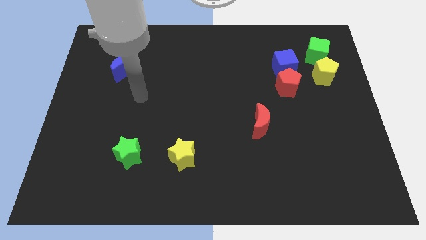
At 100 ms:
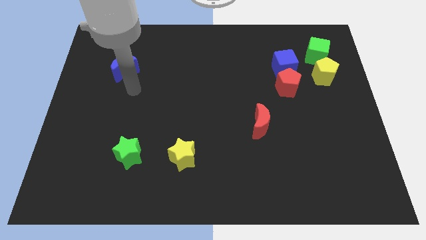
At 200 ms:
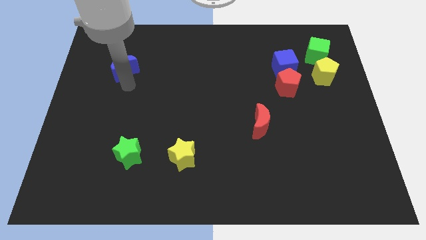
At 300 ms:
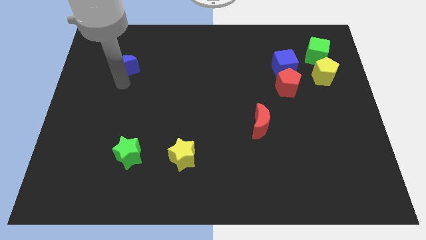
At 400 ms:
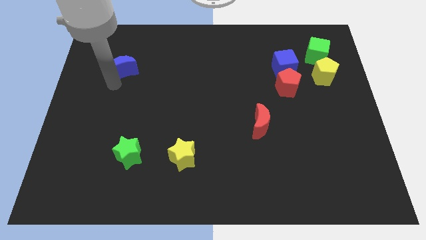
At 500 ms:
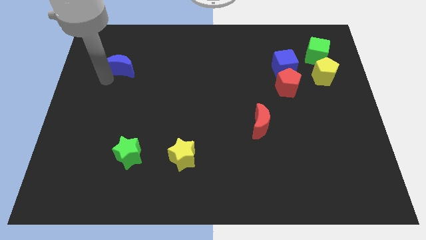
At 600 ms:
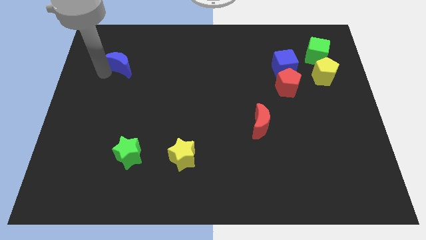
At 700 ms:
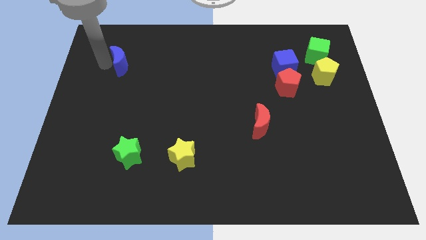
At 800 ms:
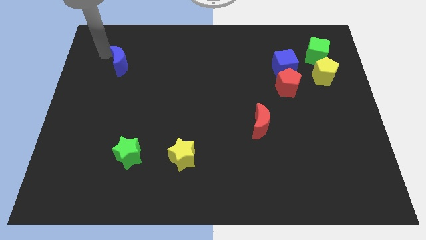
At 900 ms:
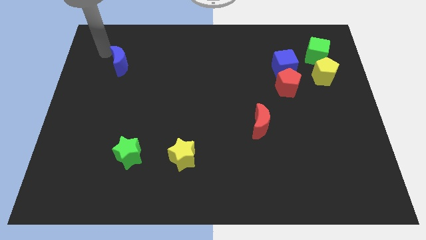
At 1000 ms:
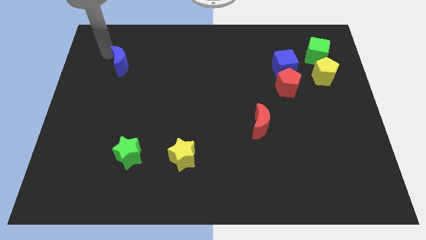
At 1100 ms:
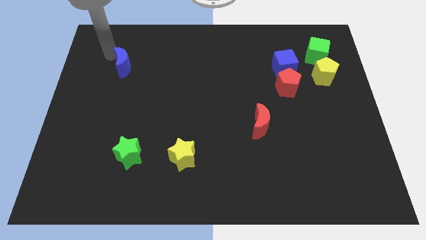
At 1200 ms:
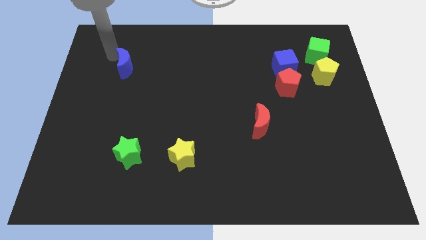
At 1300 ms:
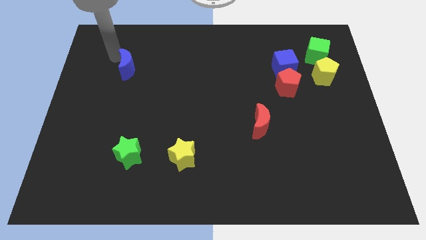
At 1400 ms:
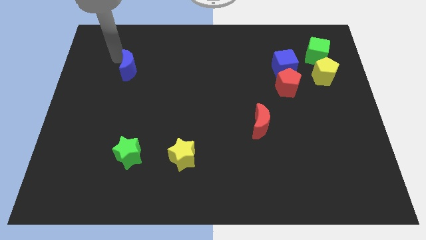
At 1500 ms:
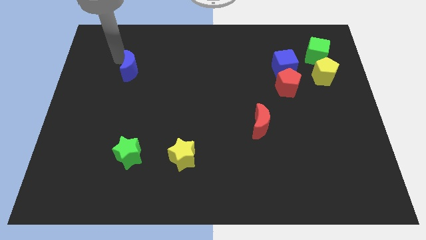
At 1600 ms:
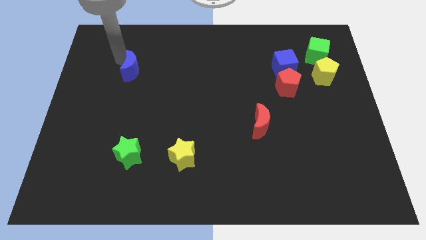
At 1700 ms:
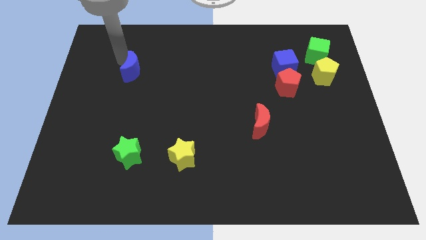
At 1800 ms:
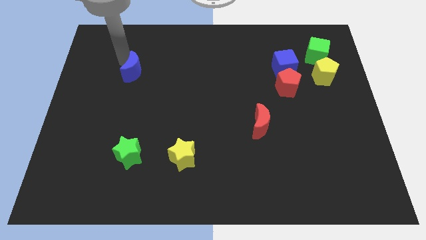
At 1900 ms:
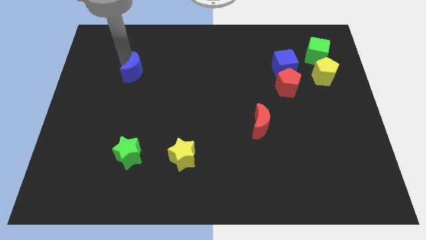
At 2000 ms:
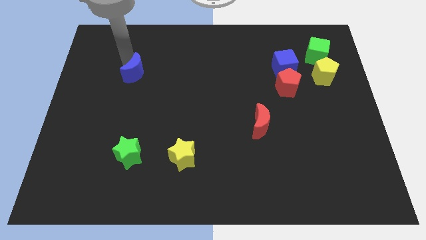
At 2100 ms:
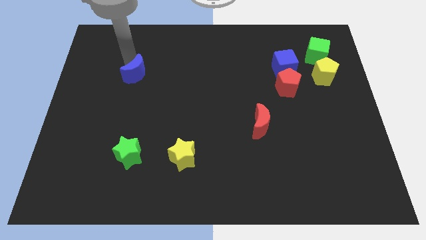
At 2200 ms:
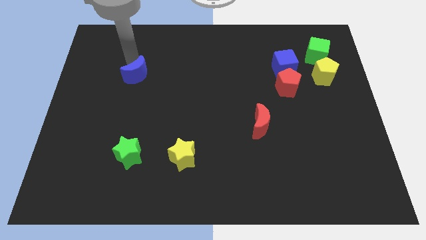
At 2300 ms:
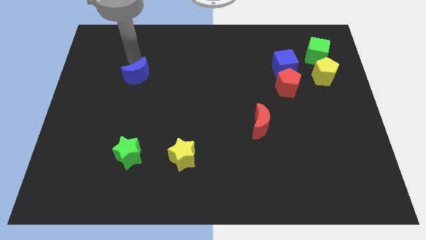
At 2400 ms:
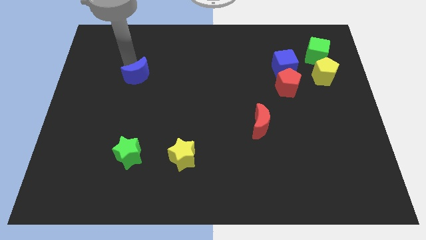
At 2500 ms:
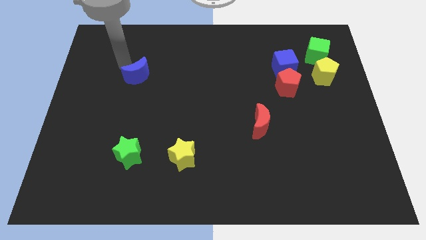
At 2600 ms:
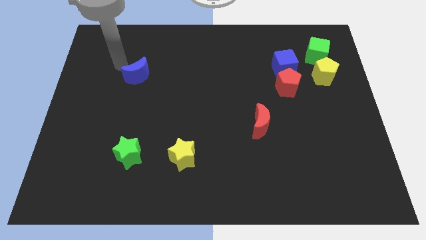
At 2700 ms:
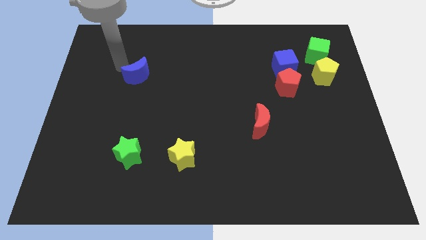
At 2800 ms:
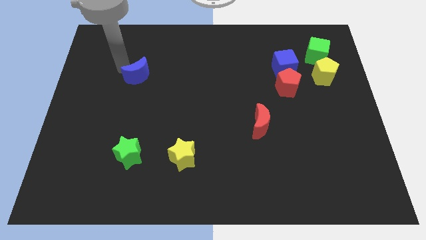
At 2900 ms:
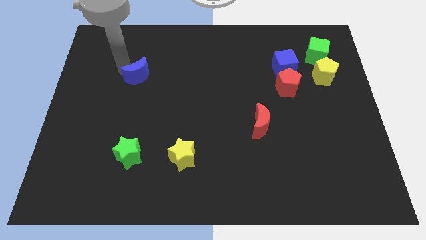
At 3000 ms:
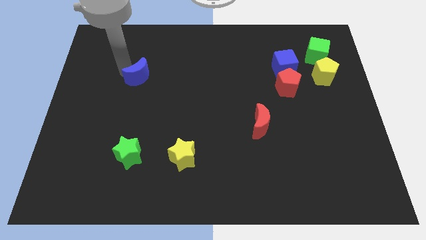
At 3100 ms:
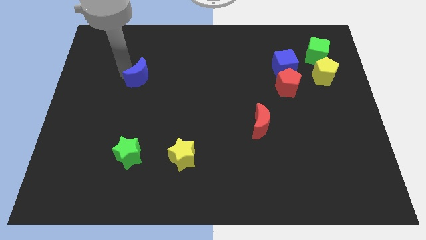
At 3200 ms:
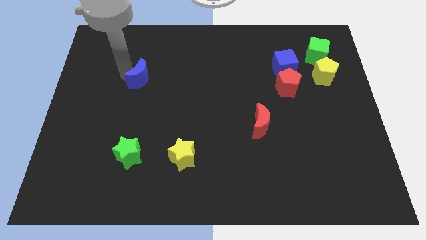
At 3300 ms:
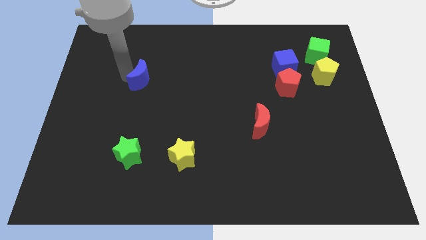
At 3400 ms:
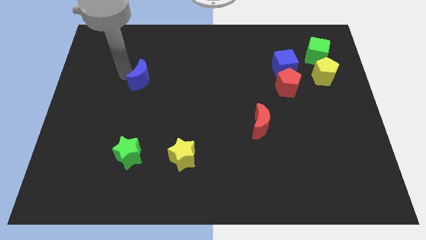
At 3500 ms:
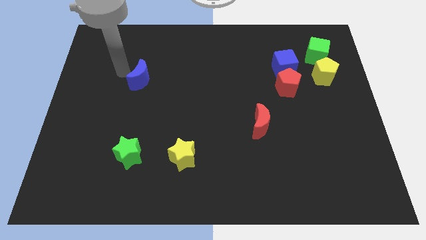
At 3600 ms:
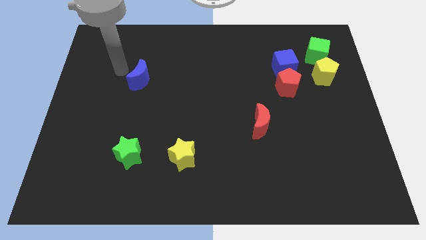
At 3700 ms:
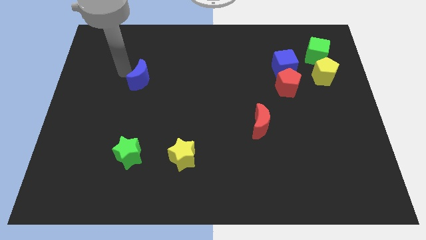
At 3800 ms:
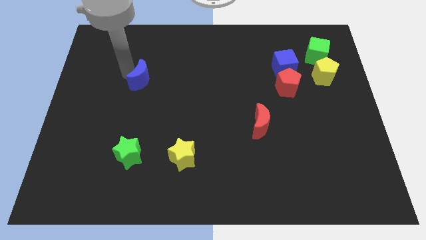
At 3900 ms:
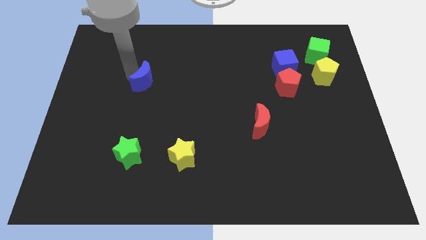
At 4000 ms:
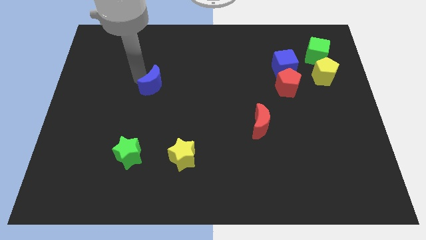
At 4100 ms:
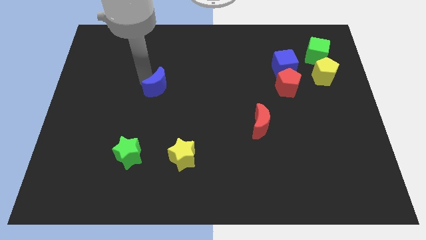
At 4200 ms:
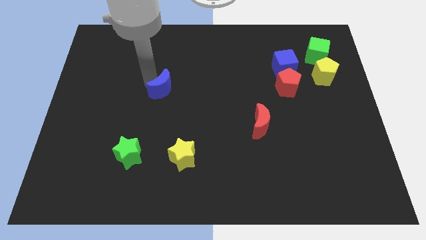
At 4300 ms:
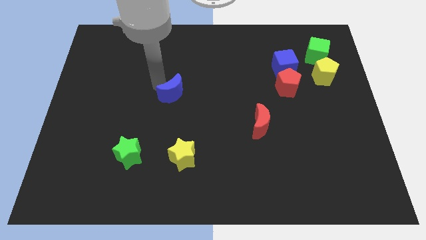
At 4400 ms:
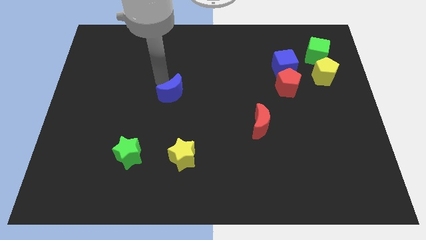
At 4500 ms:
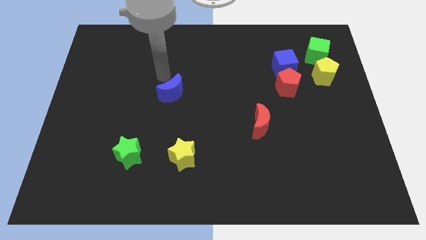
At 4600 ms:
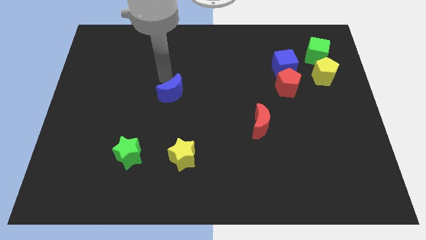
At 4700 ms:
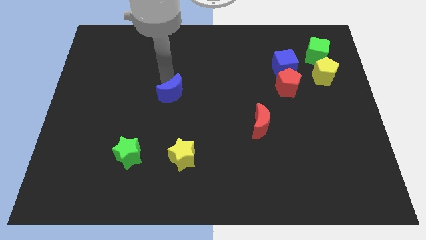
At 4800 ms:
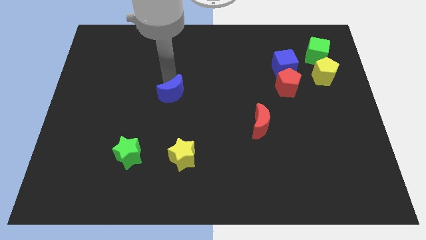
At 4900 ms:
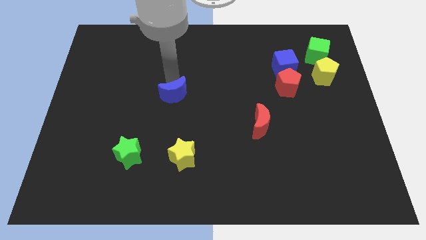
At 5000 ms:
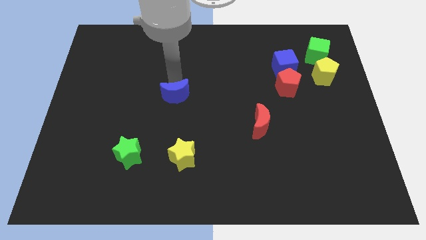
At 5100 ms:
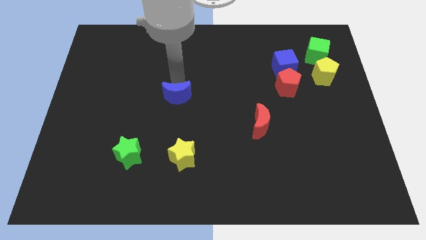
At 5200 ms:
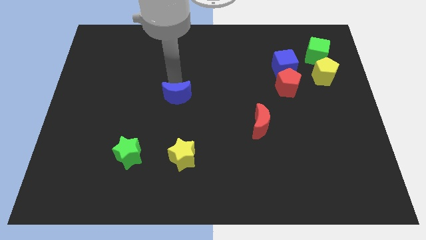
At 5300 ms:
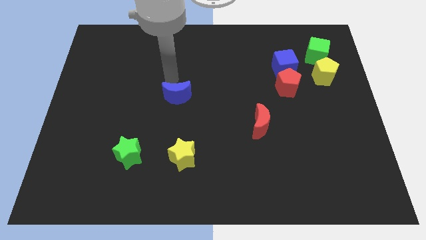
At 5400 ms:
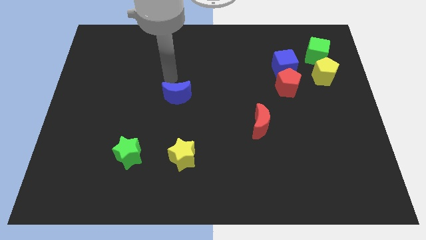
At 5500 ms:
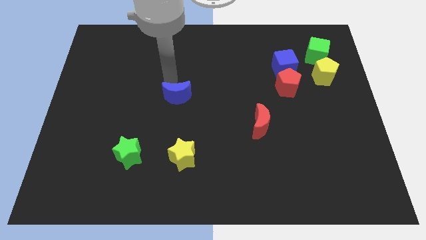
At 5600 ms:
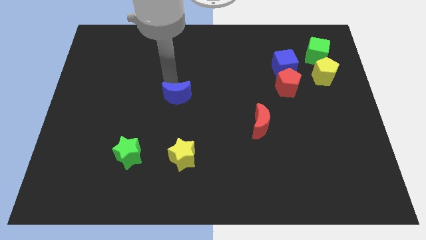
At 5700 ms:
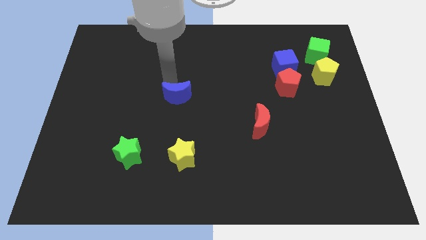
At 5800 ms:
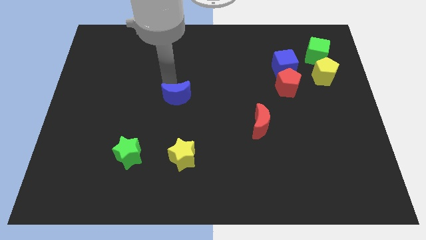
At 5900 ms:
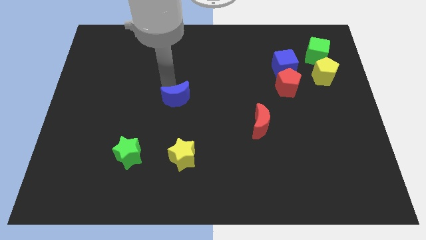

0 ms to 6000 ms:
push the blue moon to the top of the yellow star
